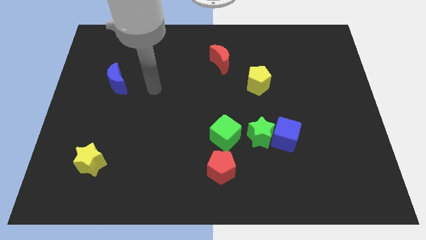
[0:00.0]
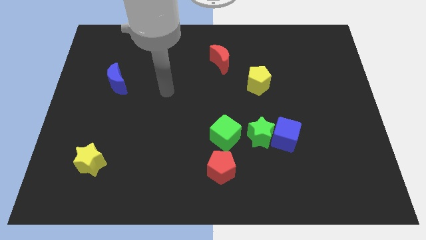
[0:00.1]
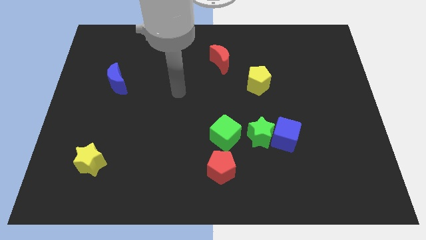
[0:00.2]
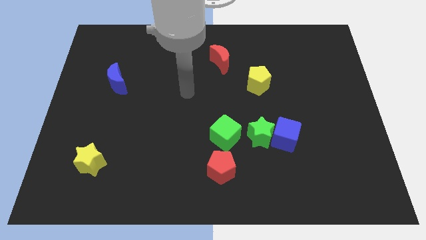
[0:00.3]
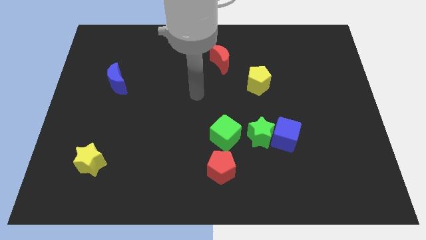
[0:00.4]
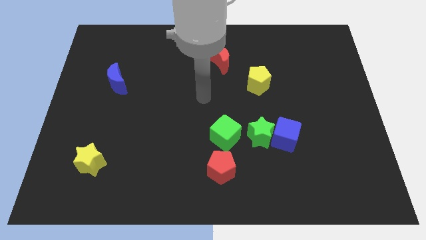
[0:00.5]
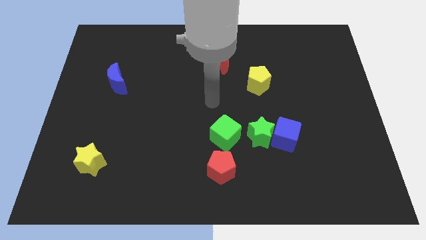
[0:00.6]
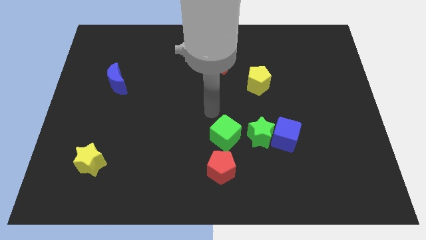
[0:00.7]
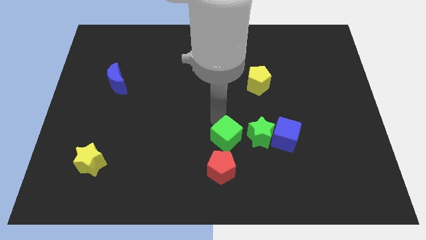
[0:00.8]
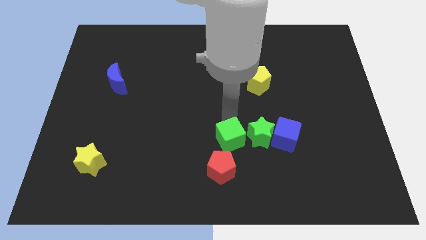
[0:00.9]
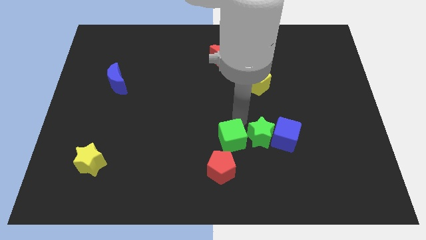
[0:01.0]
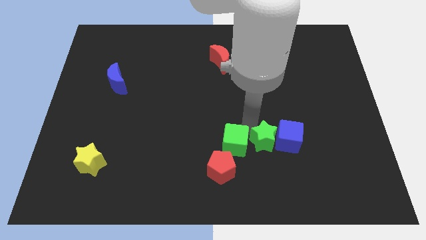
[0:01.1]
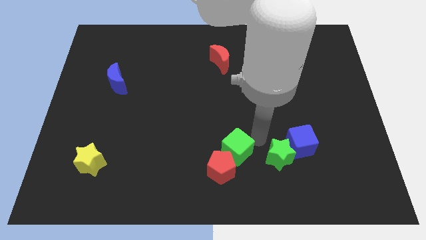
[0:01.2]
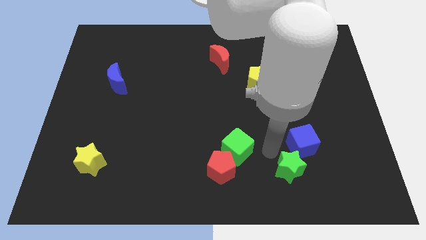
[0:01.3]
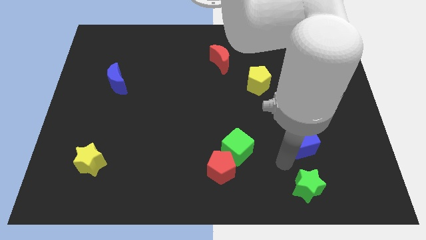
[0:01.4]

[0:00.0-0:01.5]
pull the blue cube apart from the green star

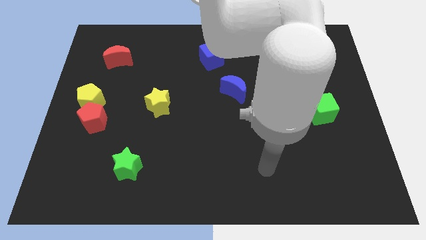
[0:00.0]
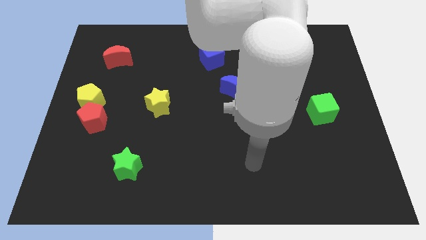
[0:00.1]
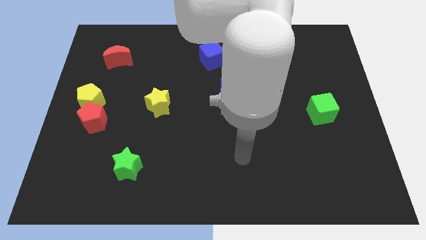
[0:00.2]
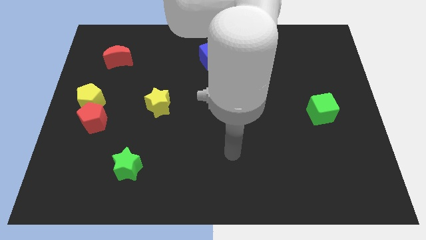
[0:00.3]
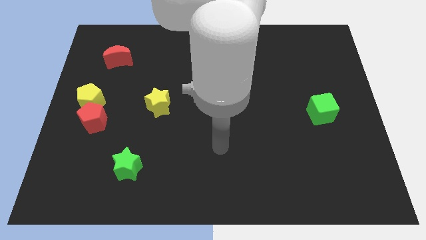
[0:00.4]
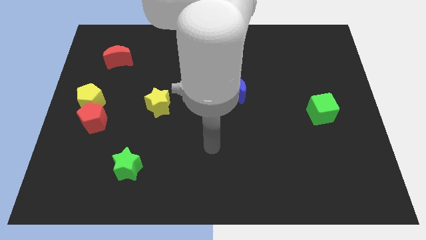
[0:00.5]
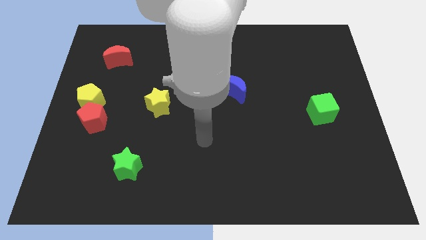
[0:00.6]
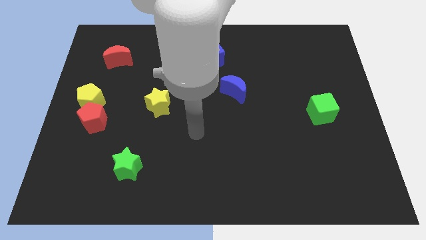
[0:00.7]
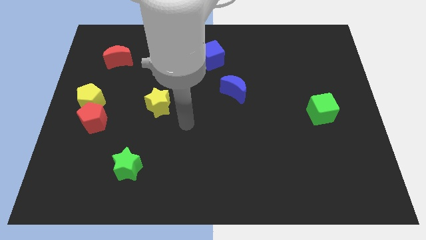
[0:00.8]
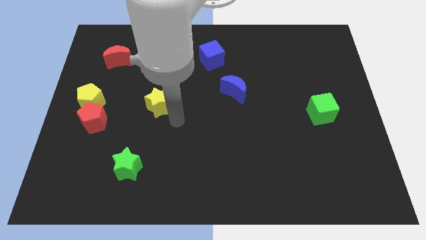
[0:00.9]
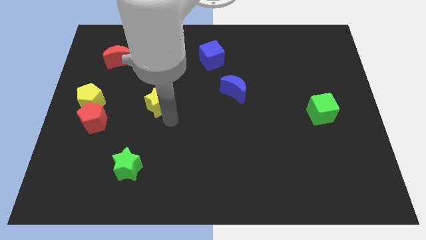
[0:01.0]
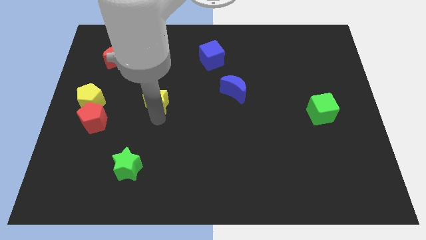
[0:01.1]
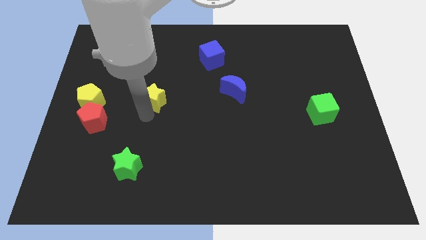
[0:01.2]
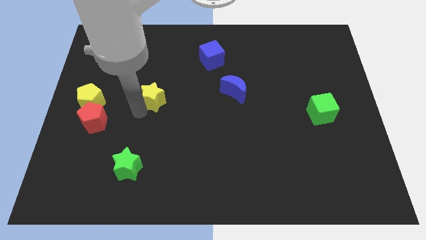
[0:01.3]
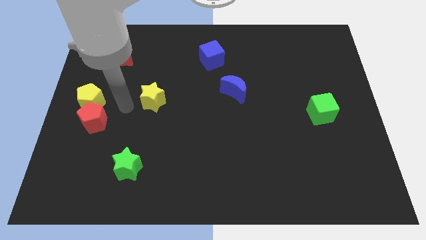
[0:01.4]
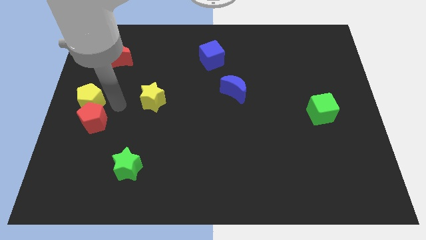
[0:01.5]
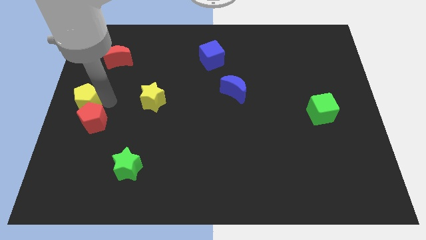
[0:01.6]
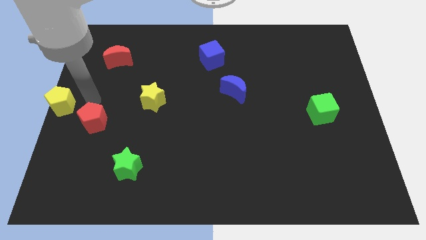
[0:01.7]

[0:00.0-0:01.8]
move the red pentagon away from the yellow pentagon

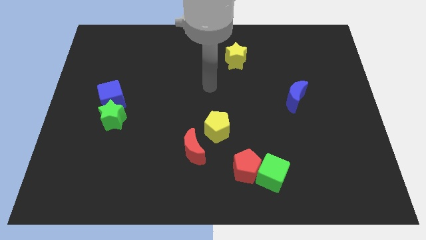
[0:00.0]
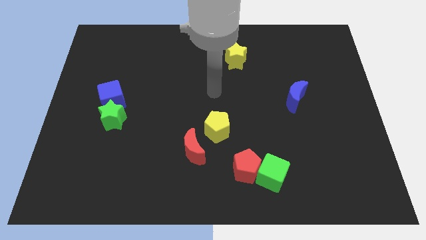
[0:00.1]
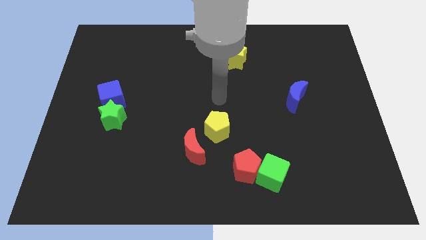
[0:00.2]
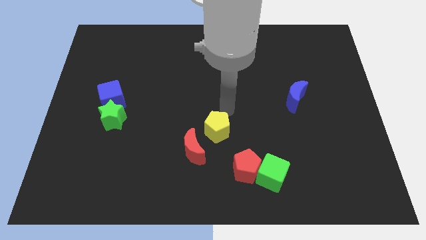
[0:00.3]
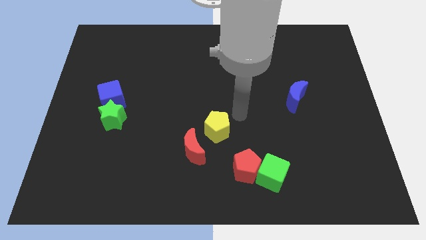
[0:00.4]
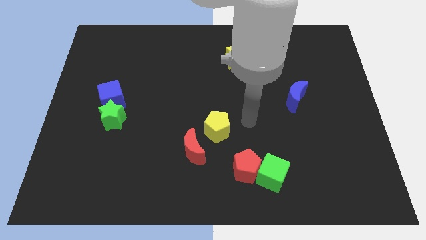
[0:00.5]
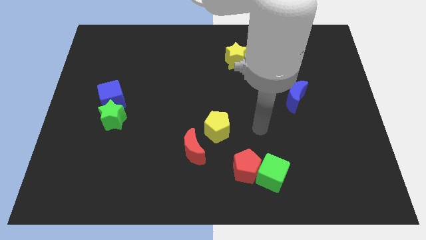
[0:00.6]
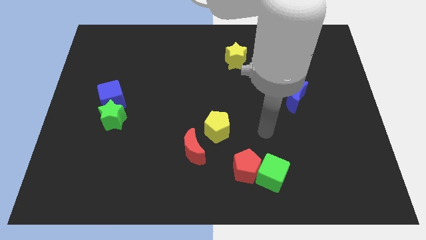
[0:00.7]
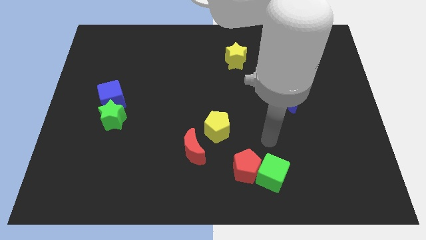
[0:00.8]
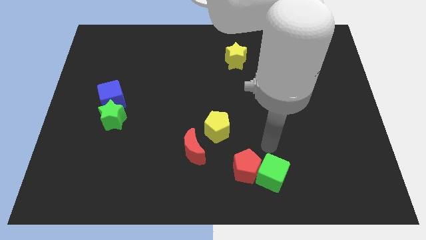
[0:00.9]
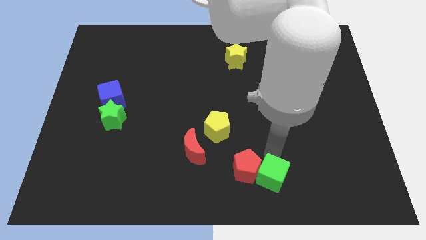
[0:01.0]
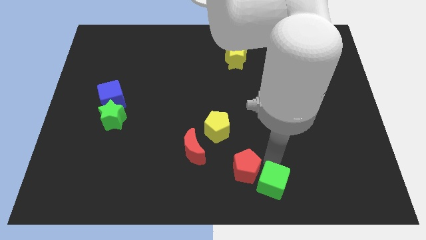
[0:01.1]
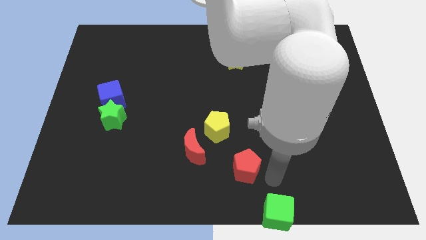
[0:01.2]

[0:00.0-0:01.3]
pull the red pentagon apart from the green cube

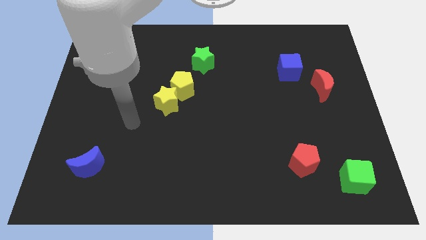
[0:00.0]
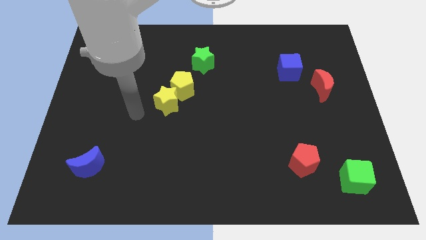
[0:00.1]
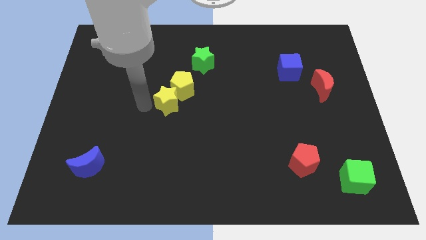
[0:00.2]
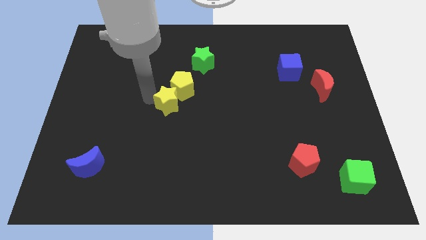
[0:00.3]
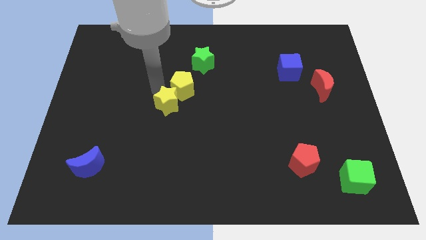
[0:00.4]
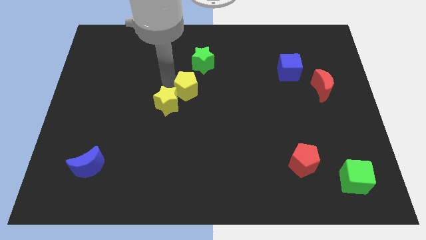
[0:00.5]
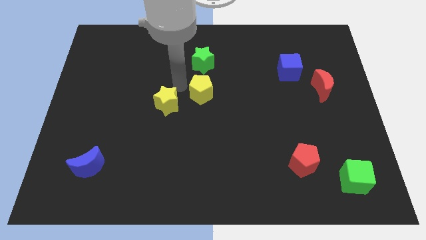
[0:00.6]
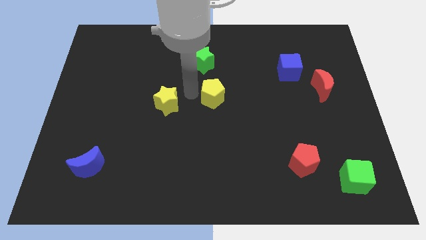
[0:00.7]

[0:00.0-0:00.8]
move the yellow star away from the yellow pentagon

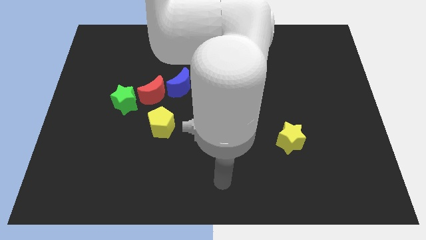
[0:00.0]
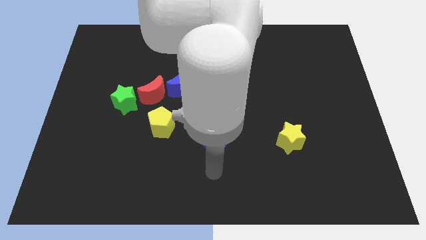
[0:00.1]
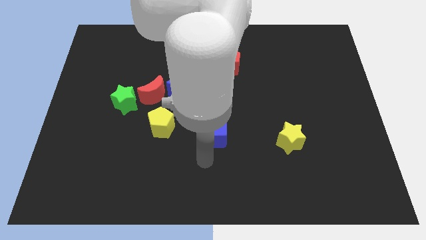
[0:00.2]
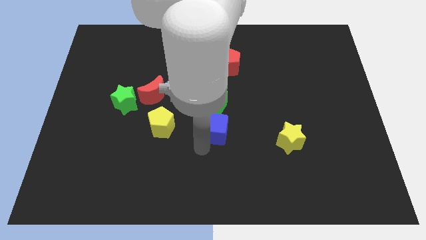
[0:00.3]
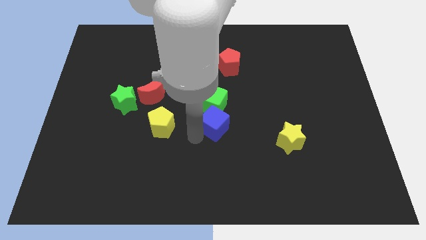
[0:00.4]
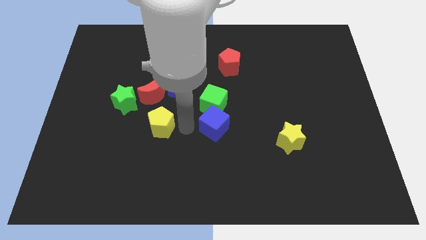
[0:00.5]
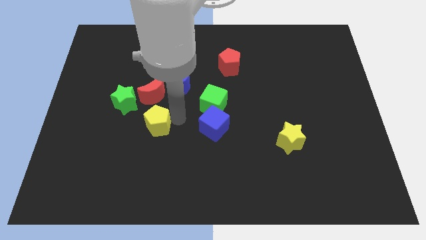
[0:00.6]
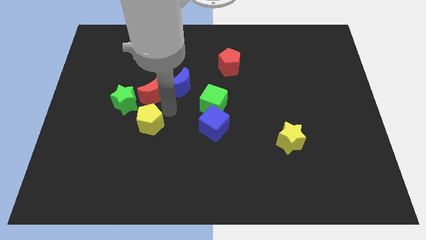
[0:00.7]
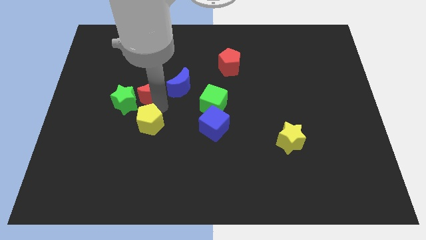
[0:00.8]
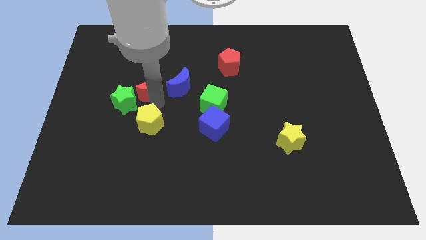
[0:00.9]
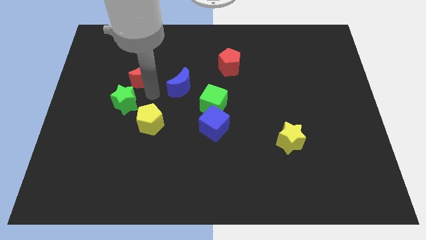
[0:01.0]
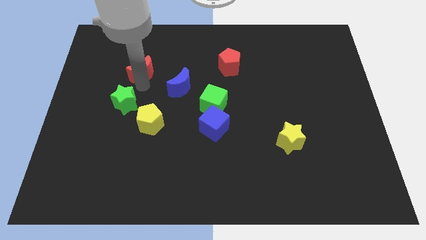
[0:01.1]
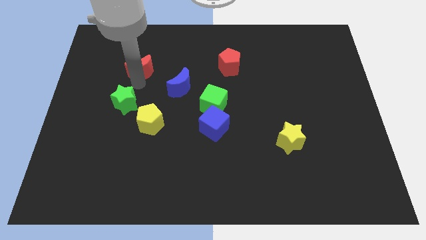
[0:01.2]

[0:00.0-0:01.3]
move the green star away from the red moon

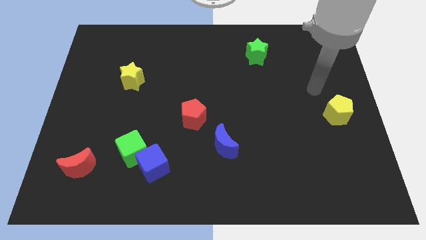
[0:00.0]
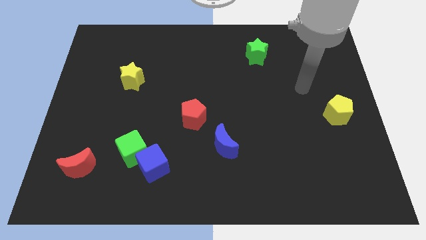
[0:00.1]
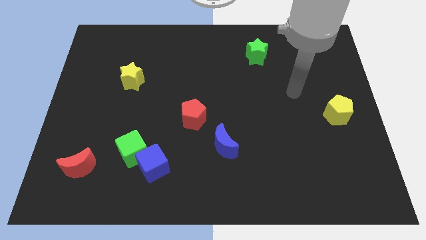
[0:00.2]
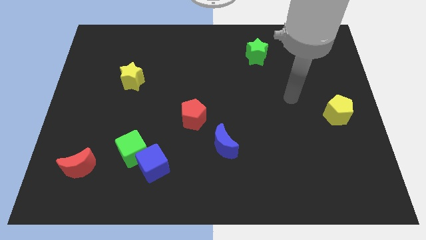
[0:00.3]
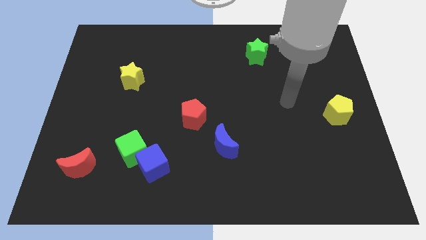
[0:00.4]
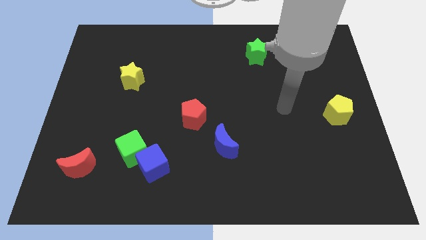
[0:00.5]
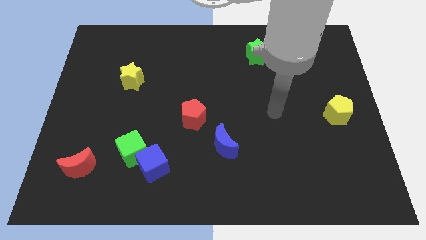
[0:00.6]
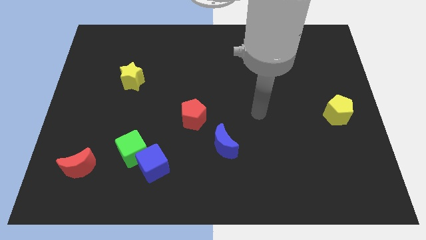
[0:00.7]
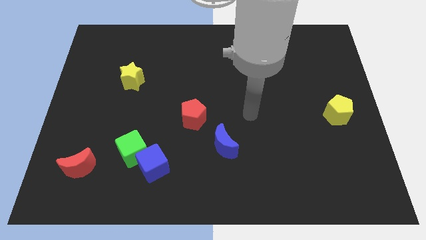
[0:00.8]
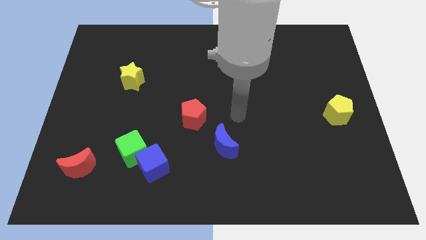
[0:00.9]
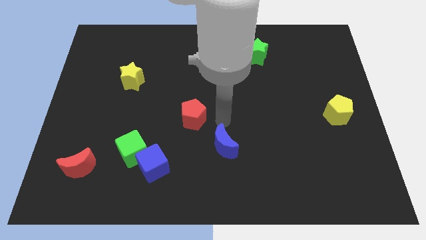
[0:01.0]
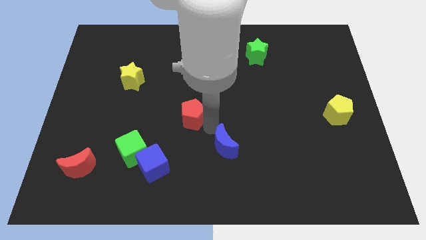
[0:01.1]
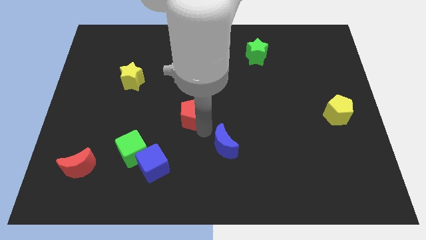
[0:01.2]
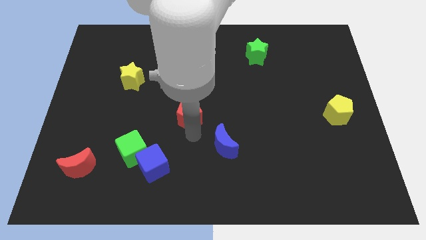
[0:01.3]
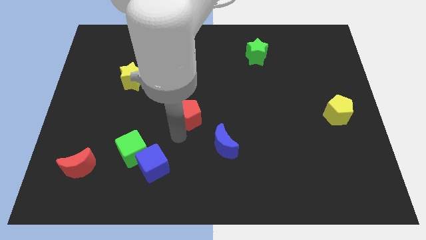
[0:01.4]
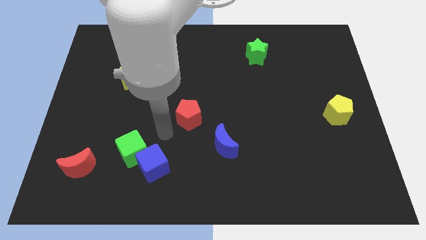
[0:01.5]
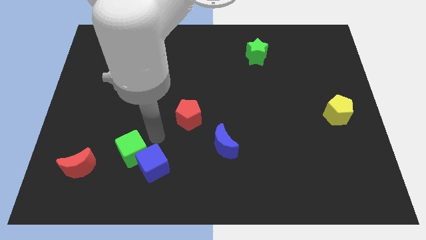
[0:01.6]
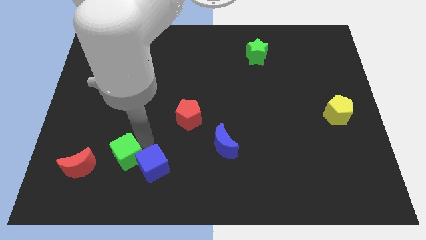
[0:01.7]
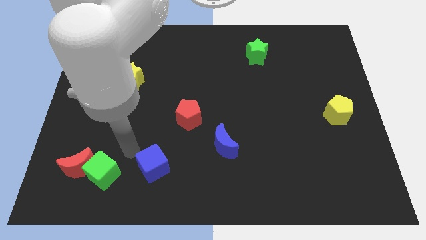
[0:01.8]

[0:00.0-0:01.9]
pull the blue cube apart from the green cube

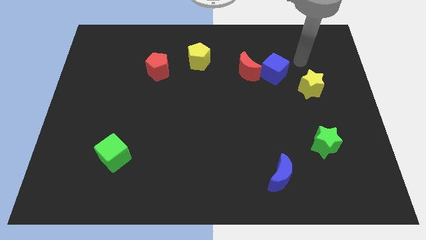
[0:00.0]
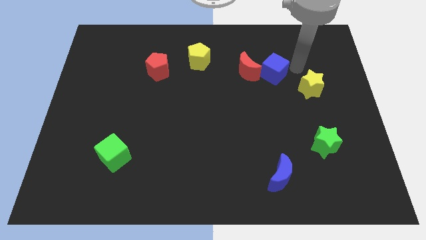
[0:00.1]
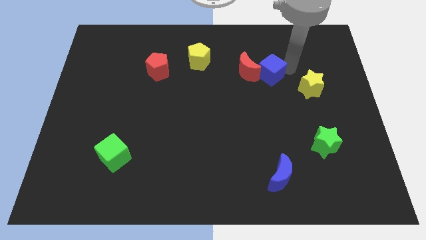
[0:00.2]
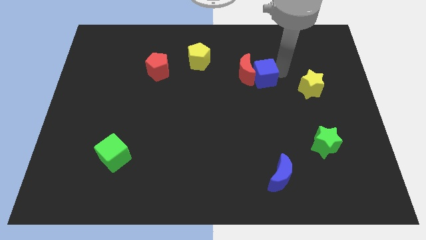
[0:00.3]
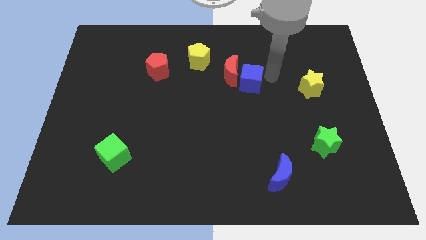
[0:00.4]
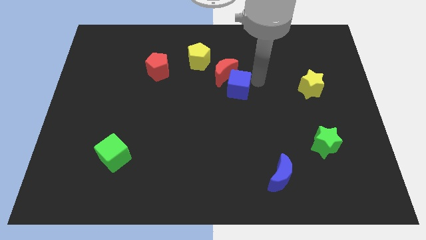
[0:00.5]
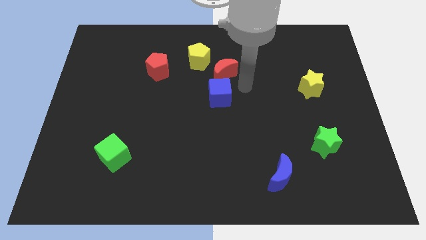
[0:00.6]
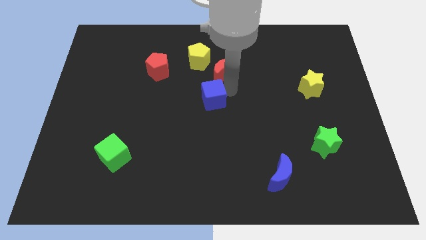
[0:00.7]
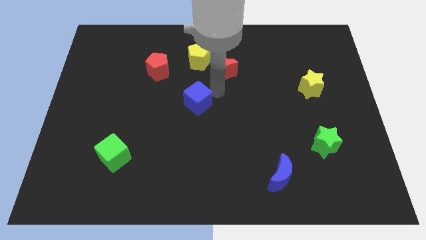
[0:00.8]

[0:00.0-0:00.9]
pull the red moon apart from the blue cube
